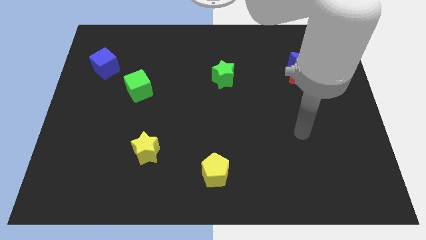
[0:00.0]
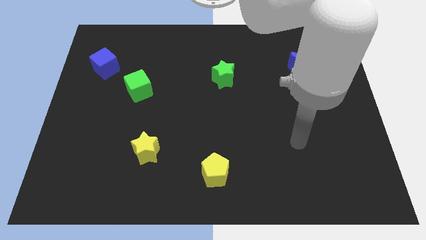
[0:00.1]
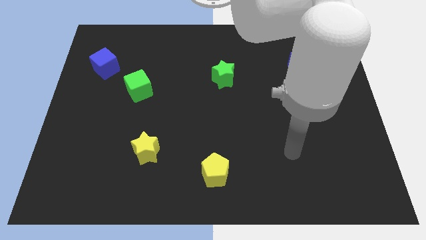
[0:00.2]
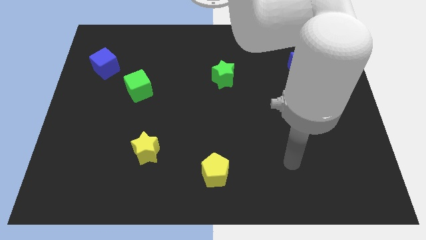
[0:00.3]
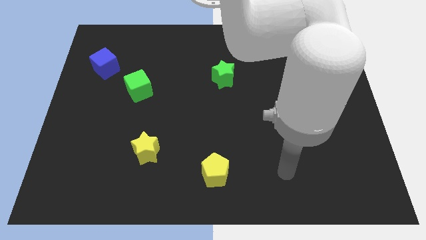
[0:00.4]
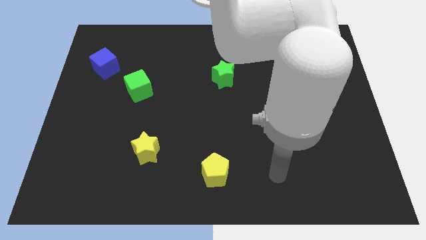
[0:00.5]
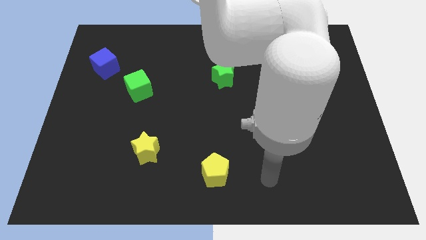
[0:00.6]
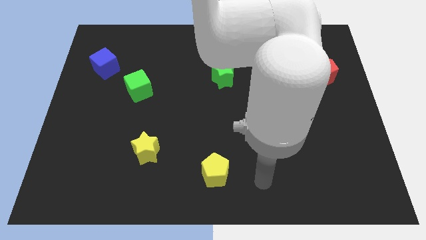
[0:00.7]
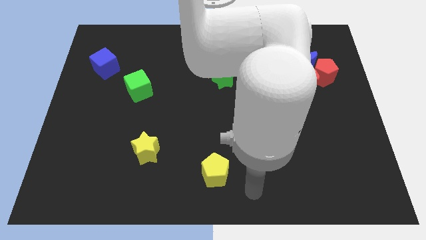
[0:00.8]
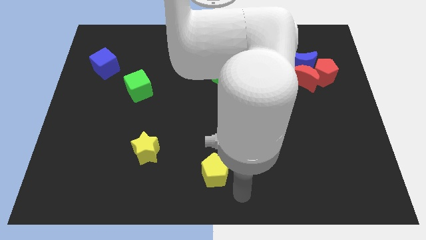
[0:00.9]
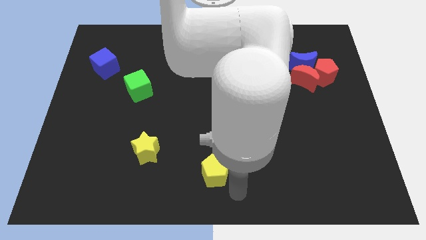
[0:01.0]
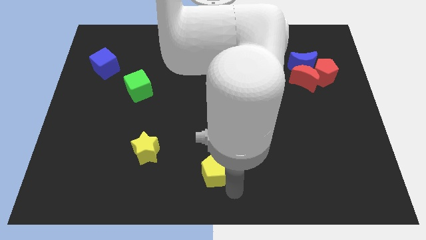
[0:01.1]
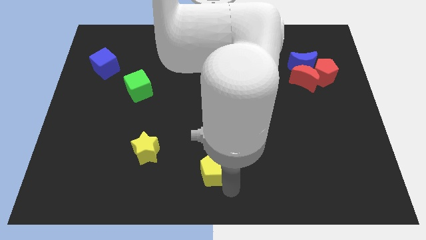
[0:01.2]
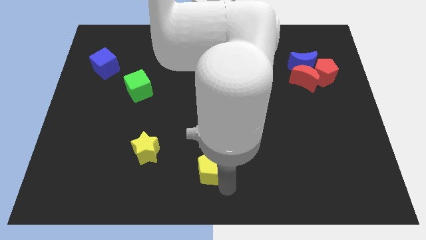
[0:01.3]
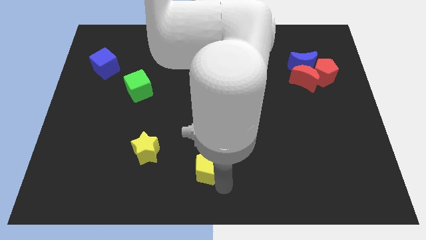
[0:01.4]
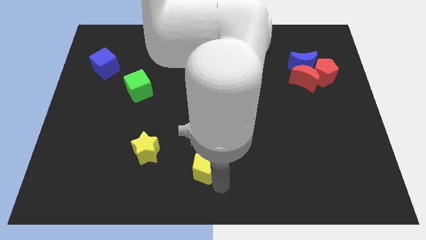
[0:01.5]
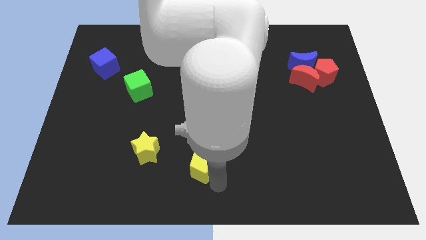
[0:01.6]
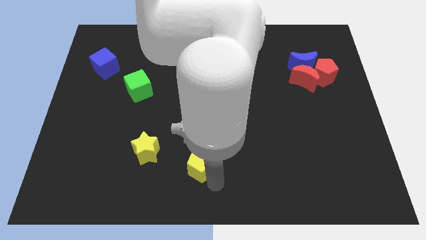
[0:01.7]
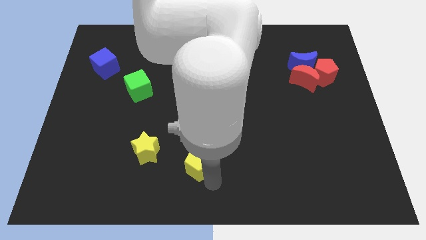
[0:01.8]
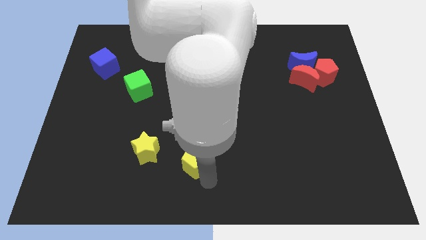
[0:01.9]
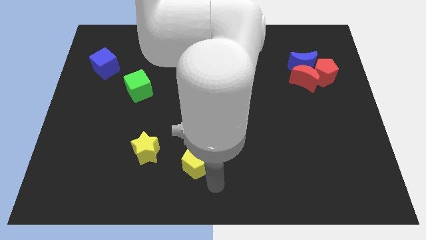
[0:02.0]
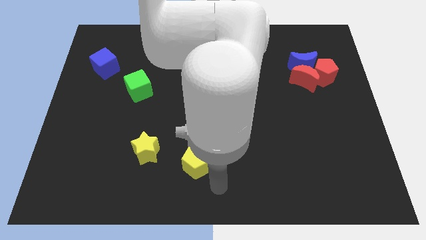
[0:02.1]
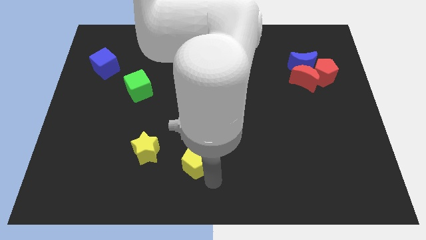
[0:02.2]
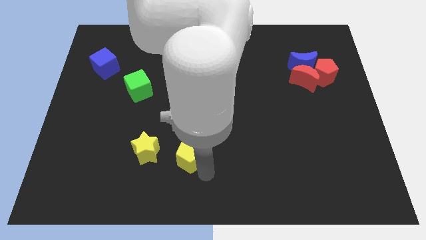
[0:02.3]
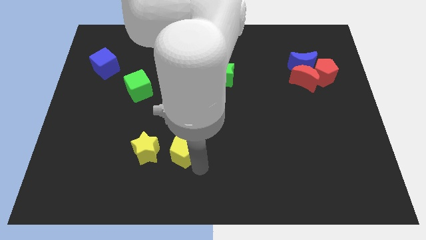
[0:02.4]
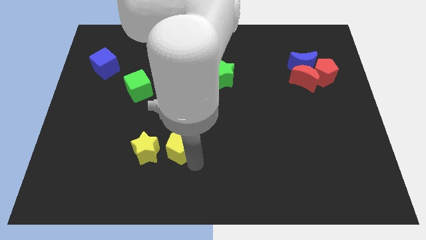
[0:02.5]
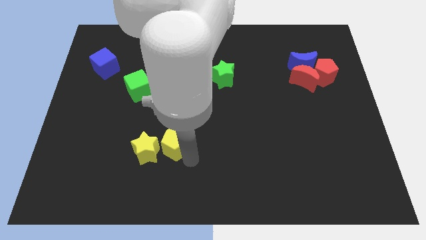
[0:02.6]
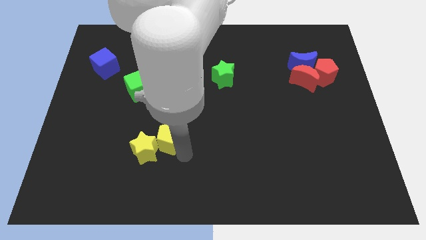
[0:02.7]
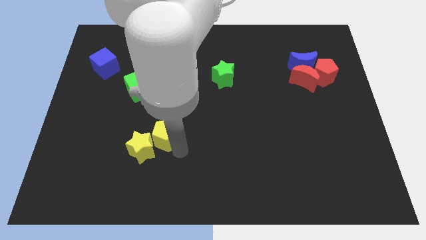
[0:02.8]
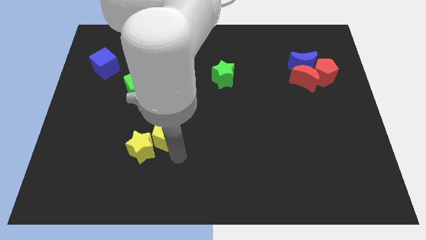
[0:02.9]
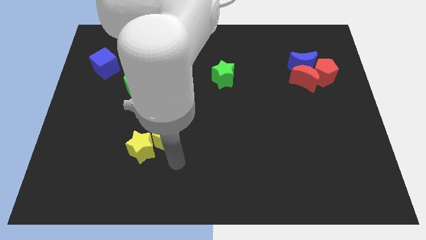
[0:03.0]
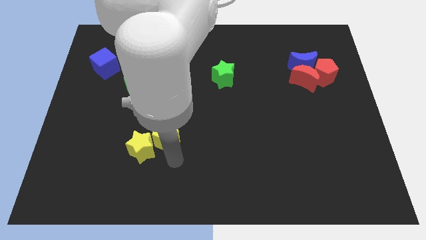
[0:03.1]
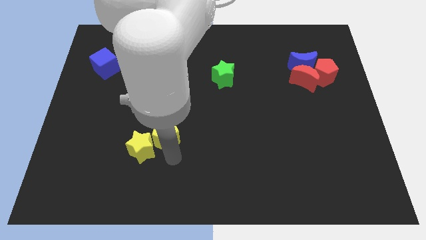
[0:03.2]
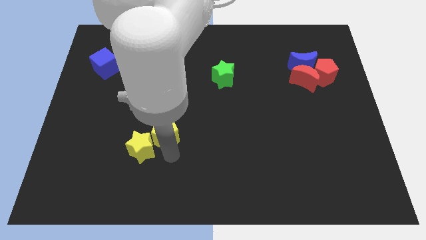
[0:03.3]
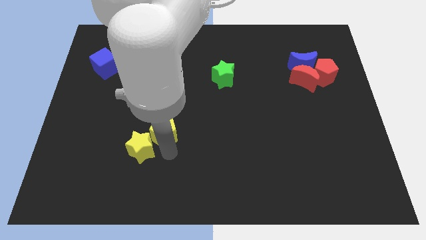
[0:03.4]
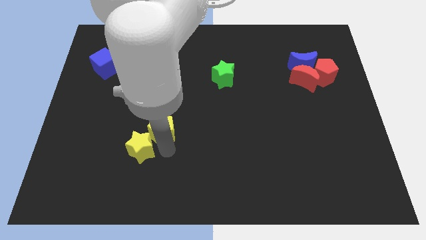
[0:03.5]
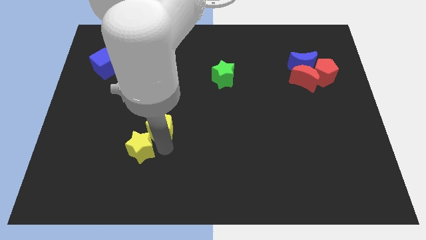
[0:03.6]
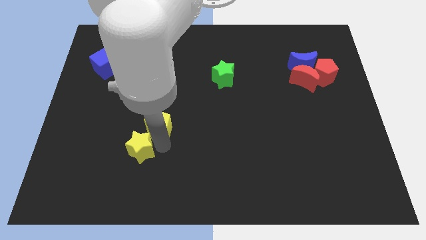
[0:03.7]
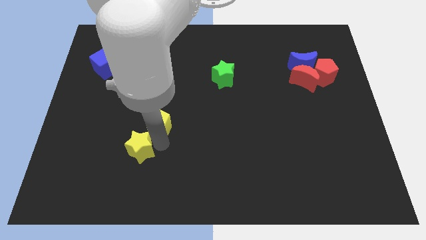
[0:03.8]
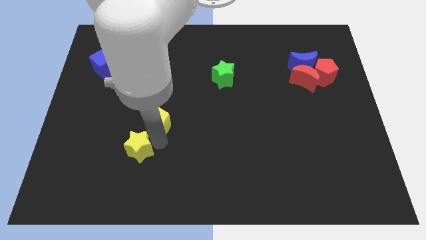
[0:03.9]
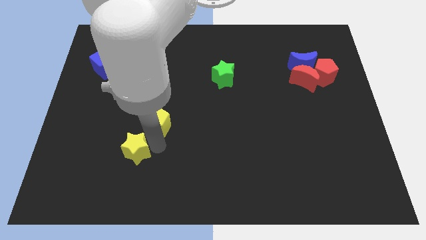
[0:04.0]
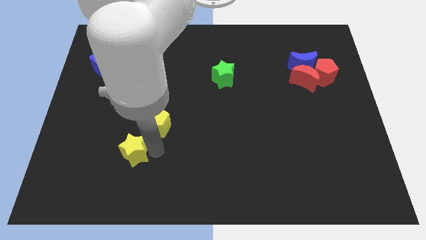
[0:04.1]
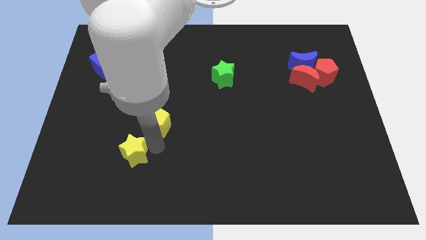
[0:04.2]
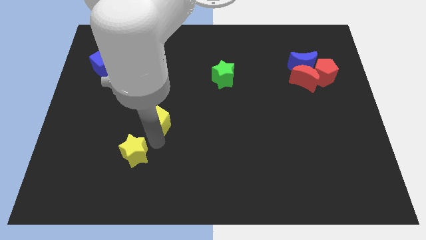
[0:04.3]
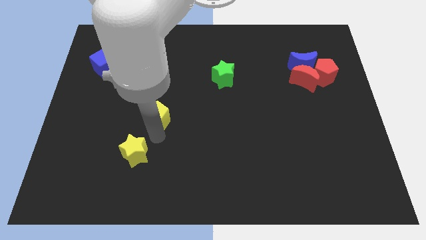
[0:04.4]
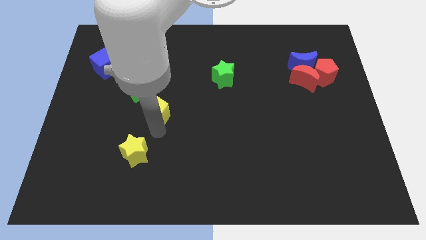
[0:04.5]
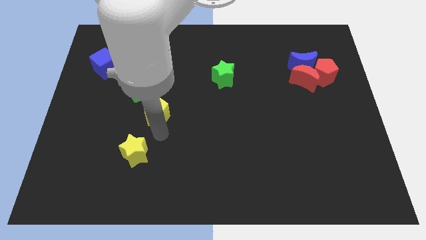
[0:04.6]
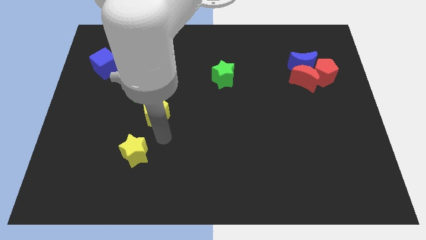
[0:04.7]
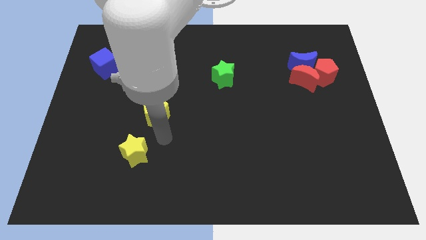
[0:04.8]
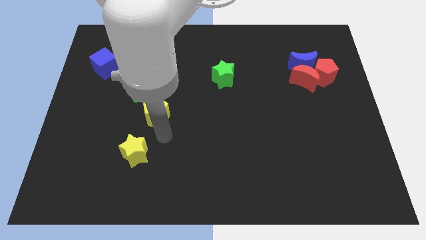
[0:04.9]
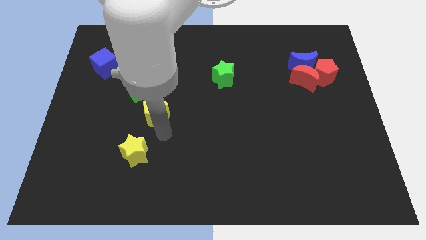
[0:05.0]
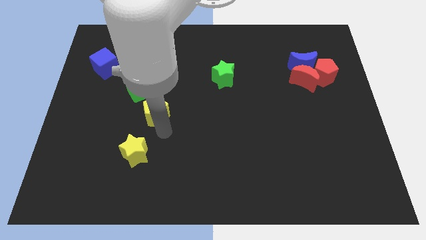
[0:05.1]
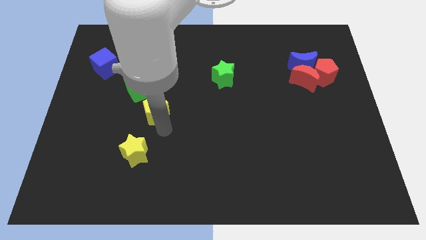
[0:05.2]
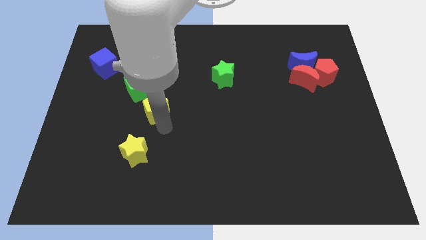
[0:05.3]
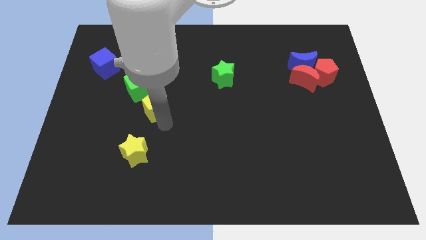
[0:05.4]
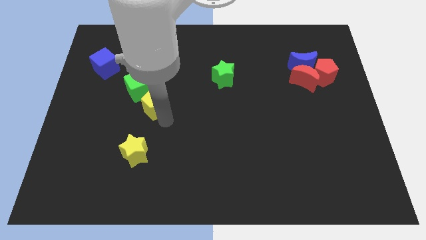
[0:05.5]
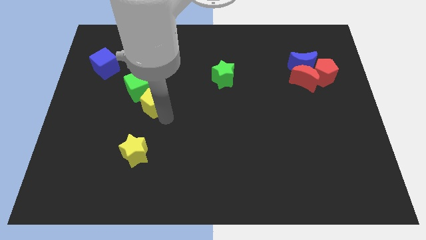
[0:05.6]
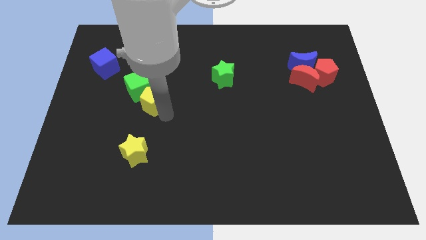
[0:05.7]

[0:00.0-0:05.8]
move the yellow pentagon to the green cube

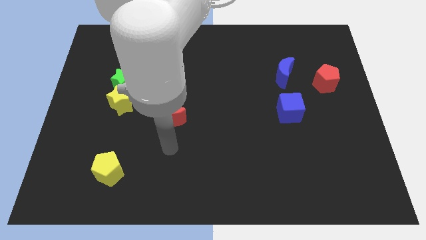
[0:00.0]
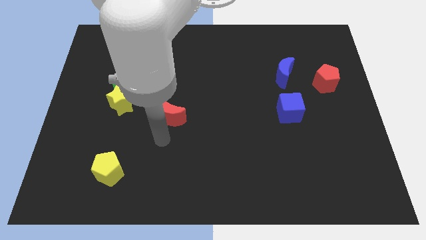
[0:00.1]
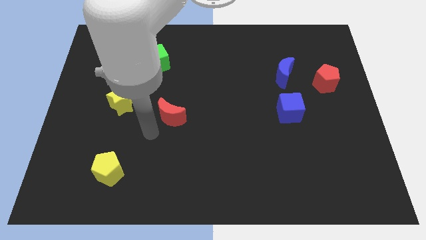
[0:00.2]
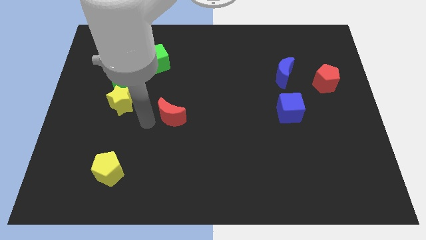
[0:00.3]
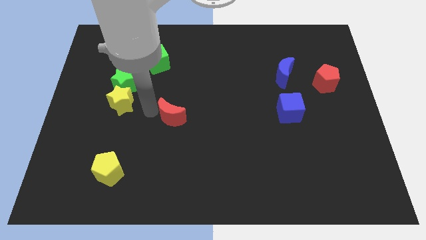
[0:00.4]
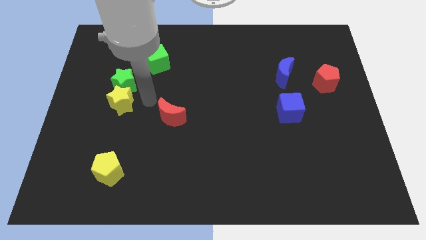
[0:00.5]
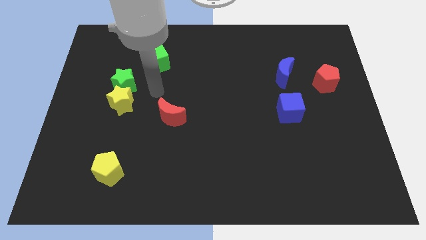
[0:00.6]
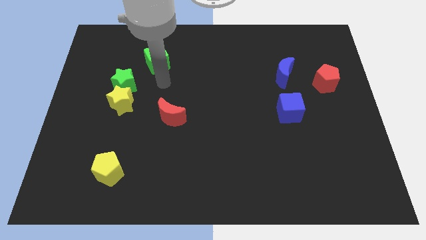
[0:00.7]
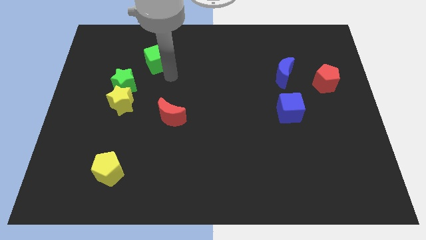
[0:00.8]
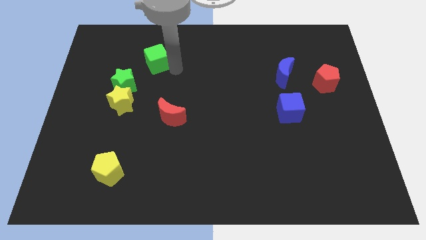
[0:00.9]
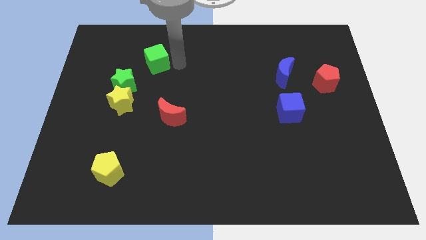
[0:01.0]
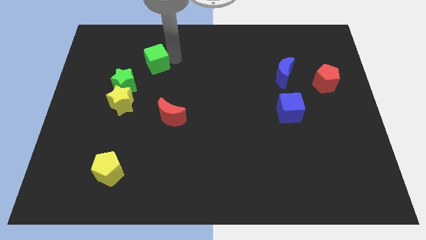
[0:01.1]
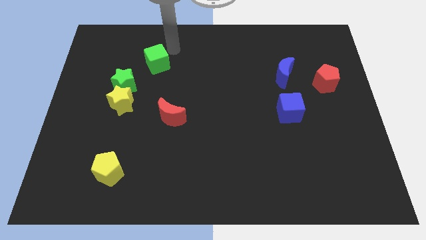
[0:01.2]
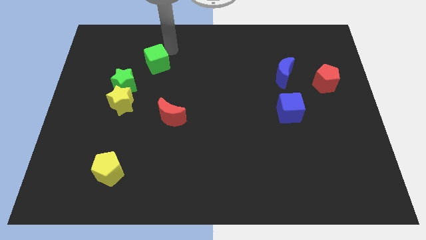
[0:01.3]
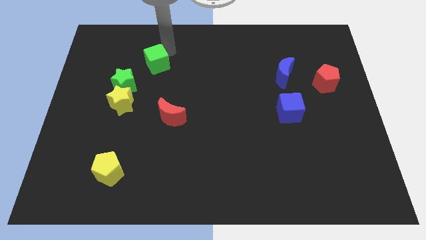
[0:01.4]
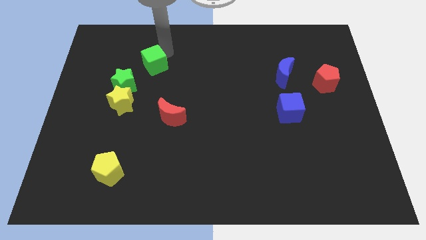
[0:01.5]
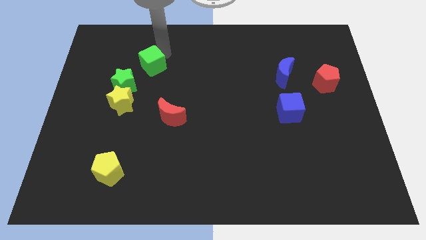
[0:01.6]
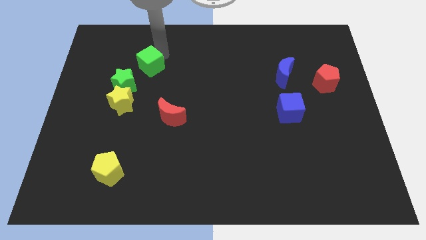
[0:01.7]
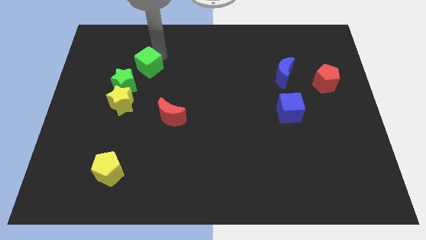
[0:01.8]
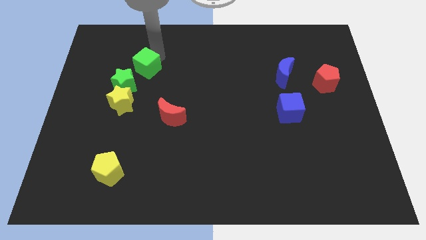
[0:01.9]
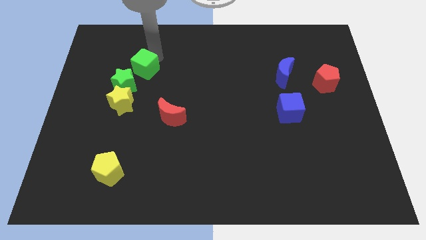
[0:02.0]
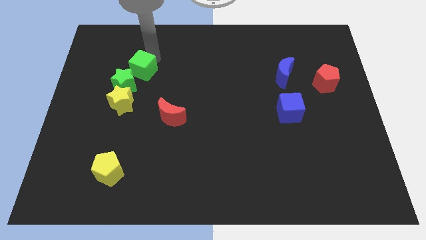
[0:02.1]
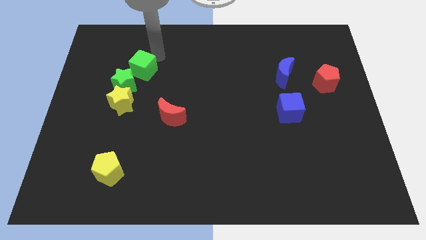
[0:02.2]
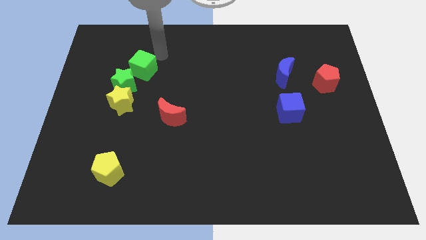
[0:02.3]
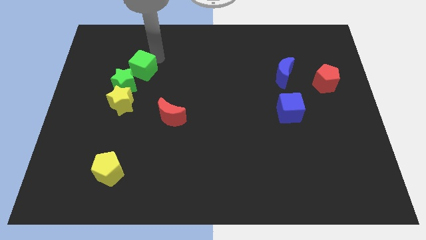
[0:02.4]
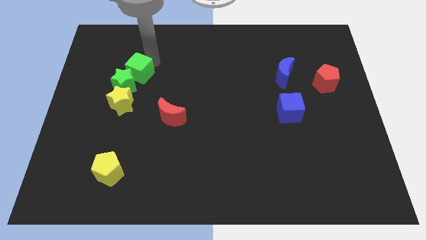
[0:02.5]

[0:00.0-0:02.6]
move the green cube next to the green star
